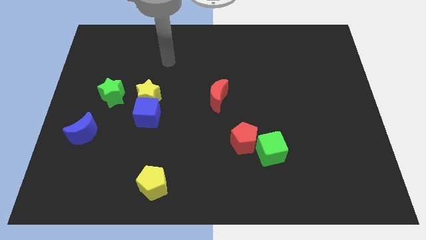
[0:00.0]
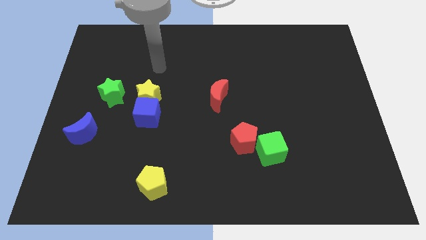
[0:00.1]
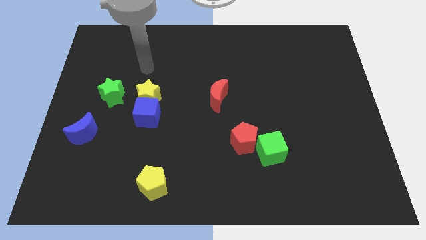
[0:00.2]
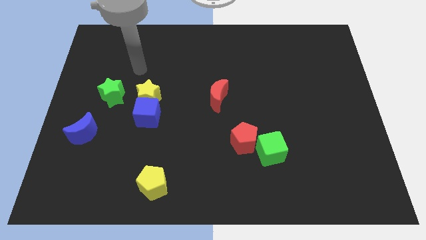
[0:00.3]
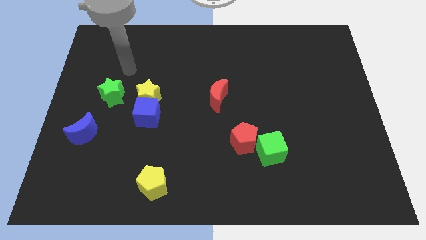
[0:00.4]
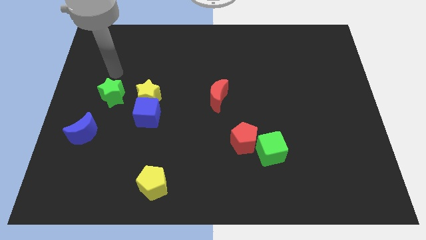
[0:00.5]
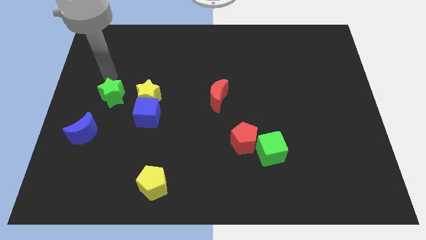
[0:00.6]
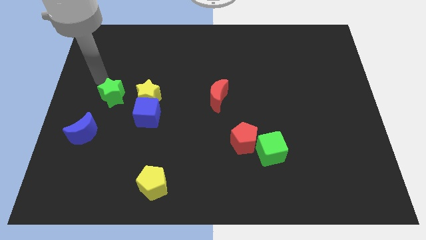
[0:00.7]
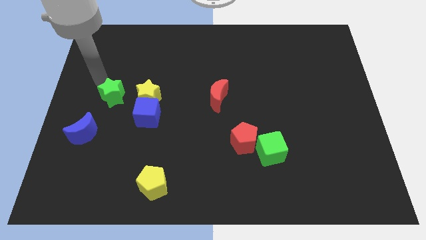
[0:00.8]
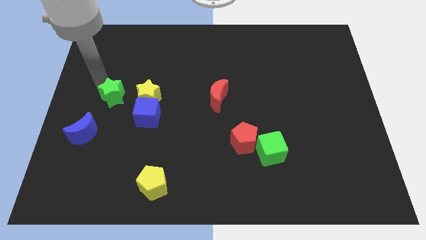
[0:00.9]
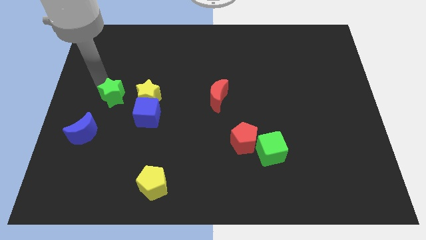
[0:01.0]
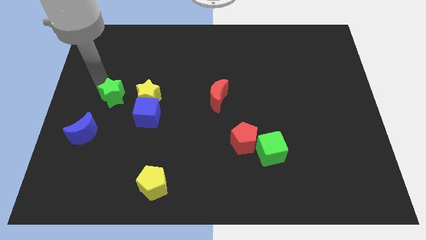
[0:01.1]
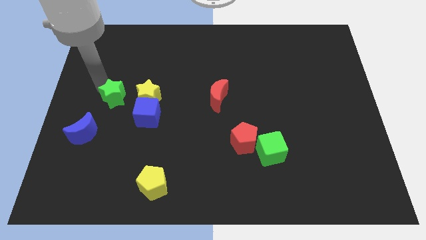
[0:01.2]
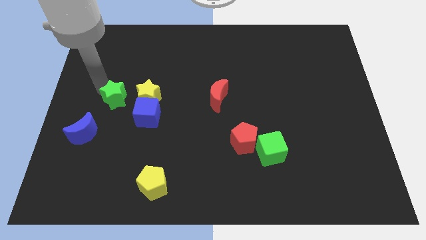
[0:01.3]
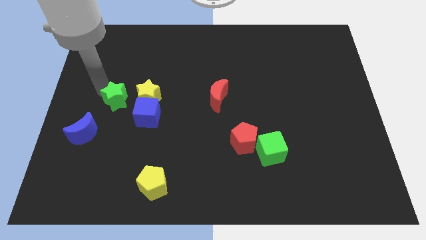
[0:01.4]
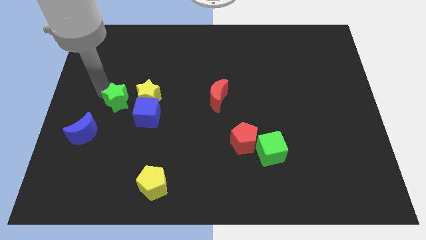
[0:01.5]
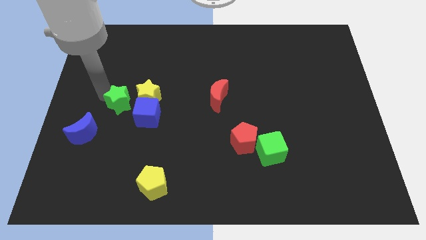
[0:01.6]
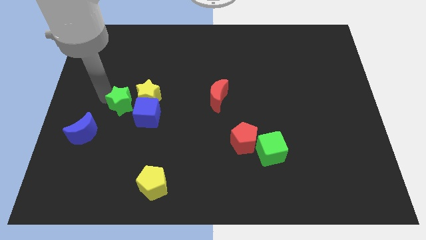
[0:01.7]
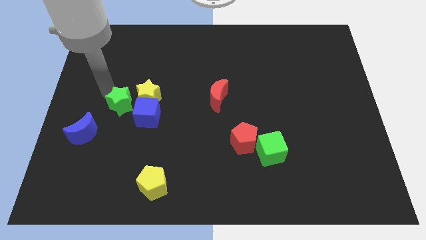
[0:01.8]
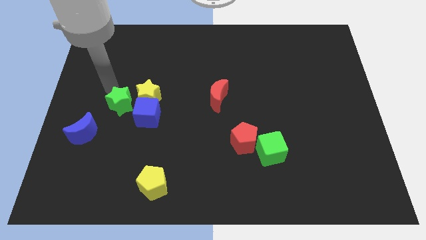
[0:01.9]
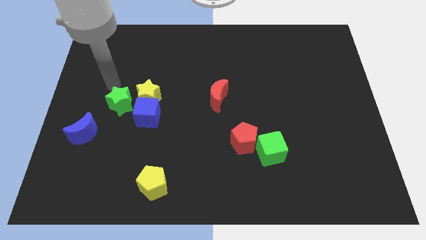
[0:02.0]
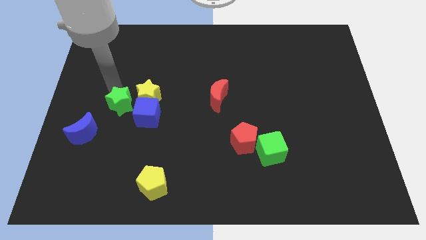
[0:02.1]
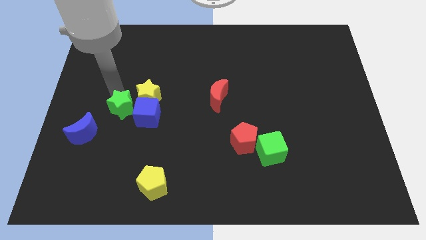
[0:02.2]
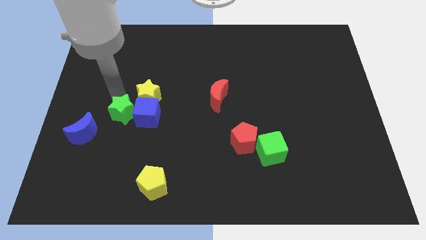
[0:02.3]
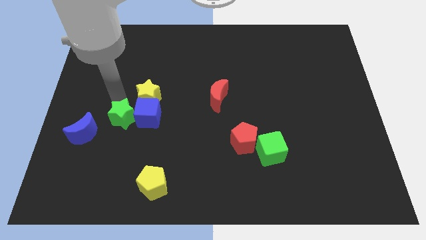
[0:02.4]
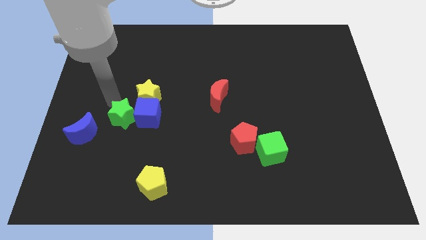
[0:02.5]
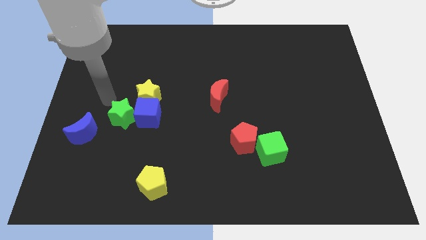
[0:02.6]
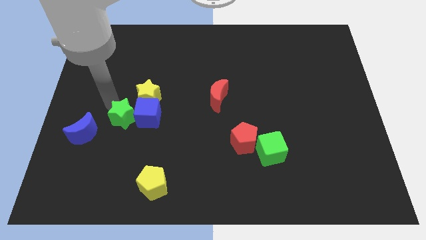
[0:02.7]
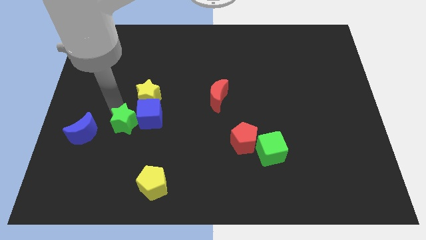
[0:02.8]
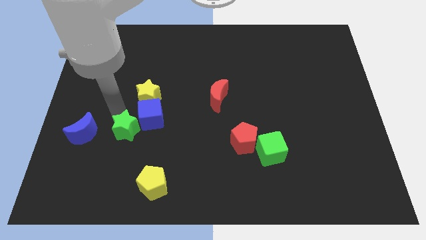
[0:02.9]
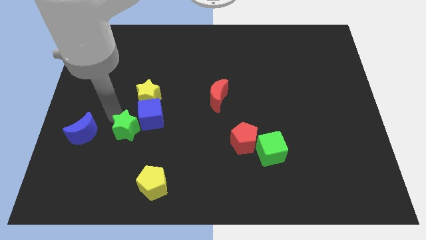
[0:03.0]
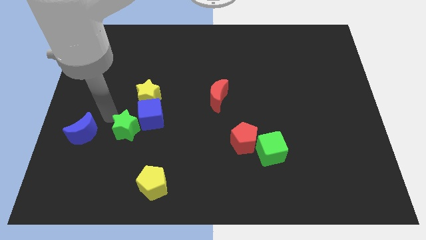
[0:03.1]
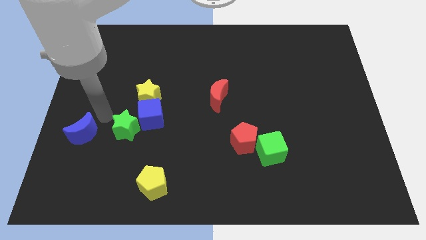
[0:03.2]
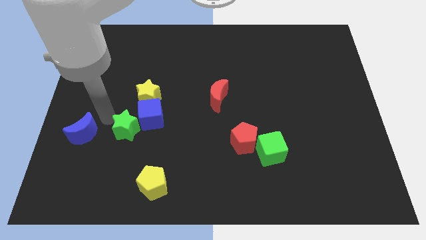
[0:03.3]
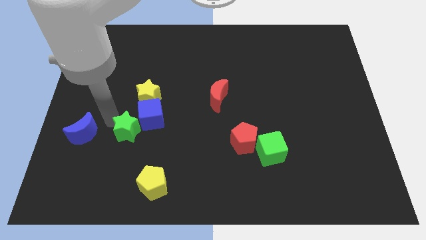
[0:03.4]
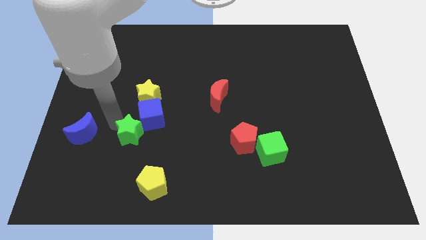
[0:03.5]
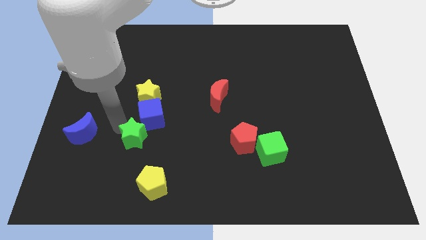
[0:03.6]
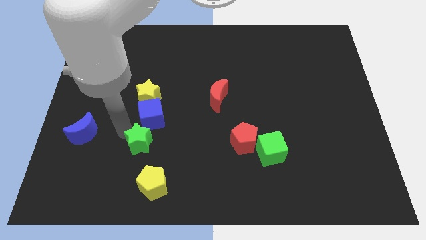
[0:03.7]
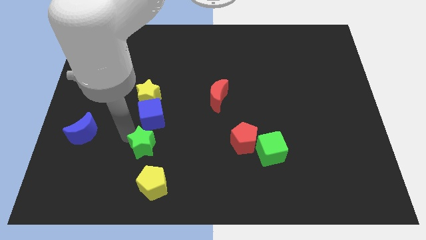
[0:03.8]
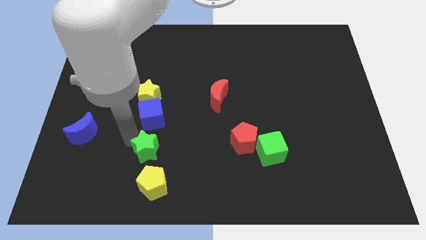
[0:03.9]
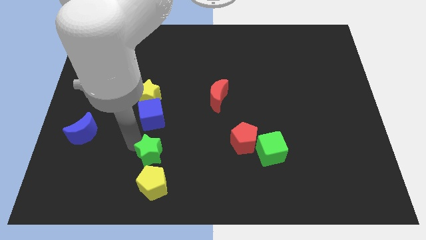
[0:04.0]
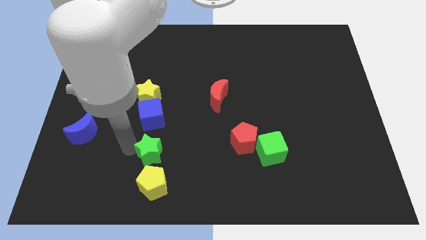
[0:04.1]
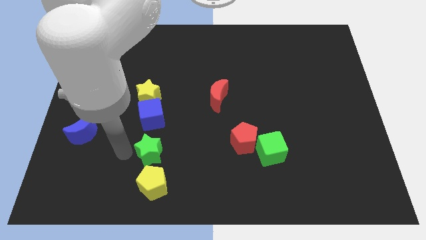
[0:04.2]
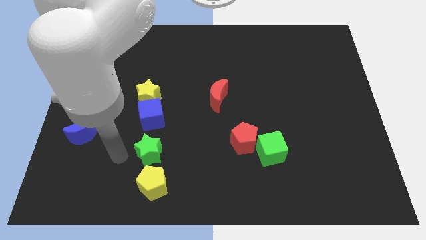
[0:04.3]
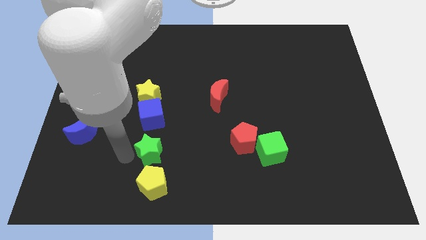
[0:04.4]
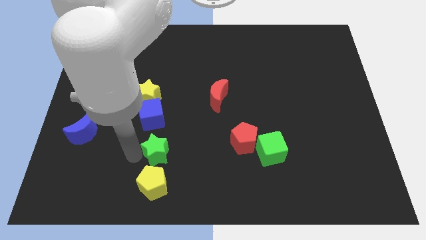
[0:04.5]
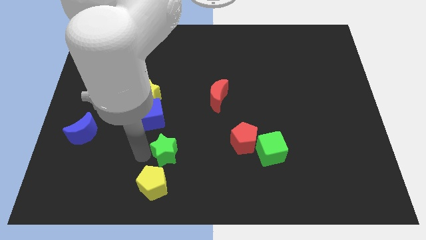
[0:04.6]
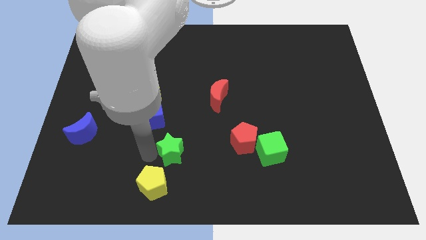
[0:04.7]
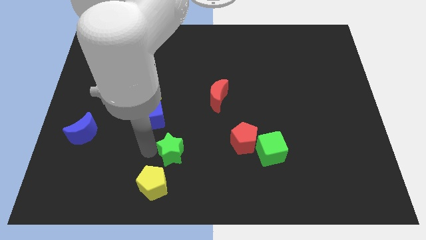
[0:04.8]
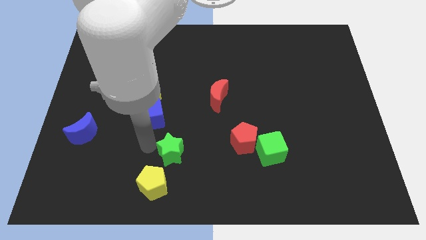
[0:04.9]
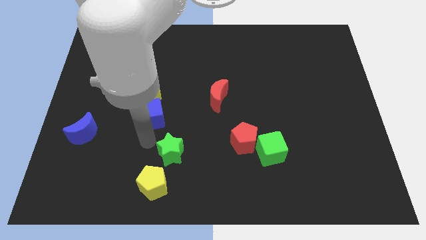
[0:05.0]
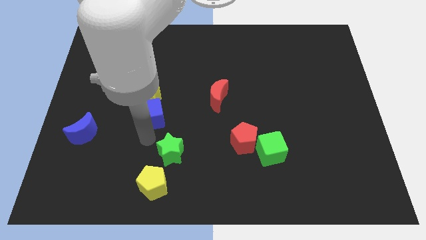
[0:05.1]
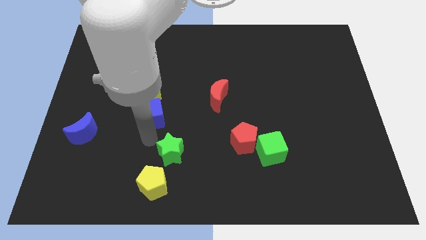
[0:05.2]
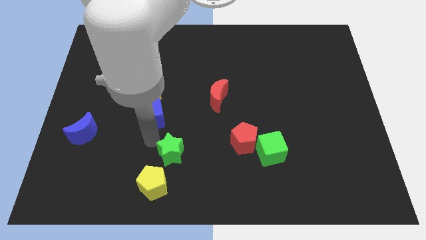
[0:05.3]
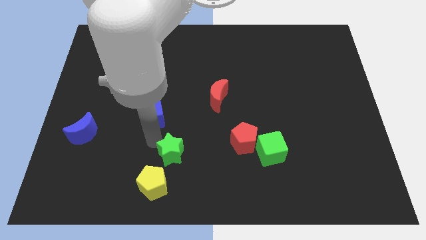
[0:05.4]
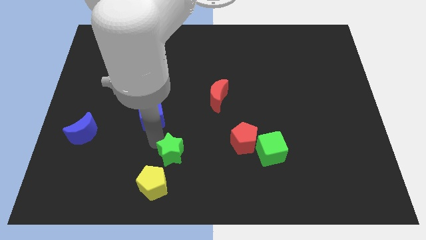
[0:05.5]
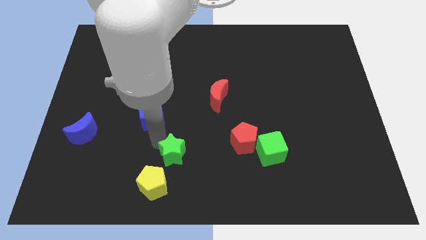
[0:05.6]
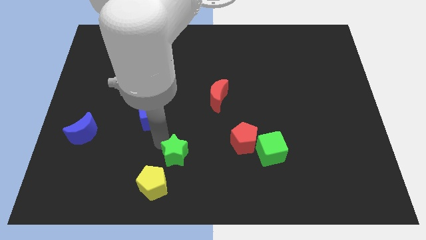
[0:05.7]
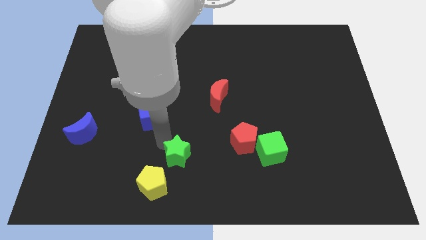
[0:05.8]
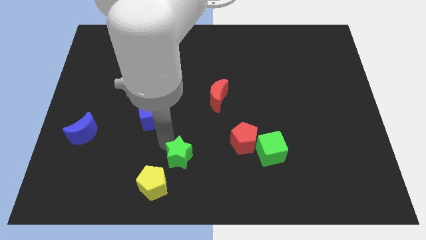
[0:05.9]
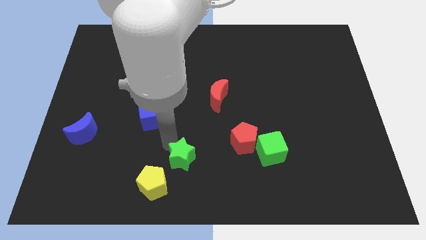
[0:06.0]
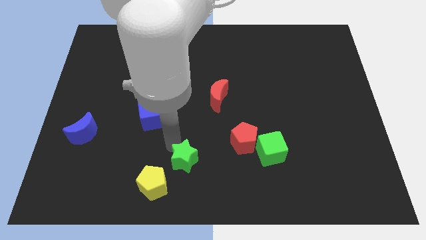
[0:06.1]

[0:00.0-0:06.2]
slide the green star to the bottom
